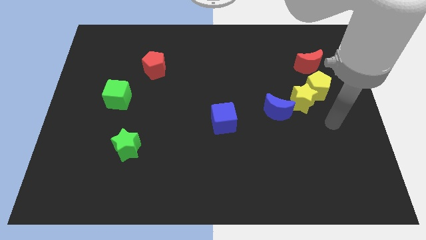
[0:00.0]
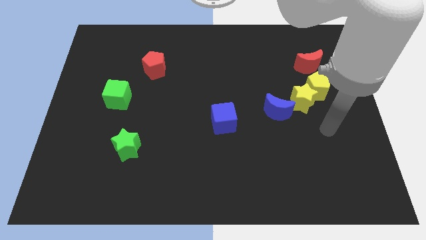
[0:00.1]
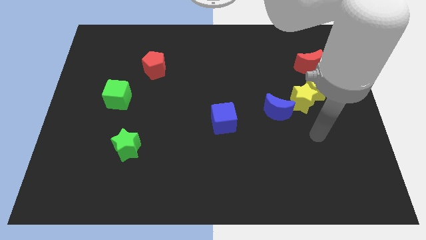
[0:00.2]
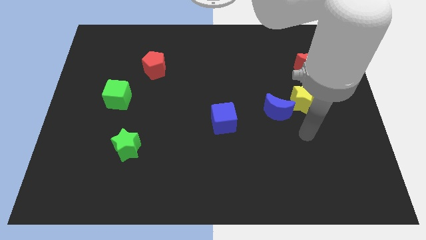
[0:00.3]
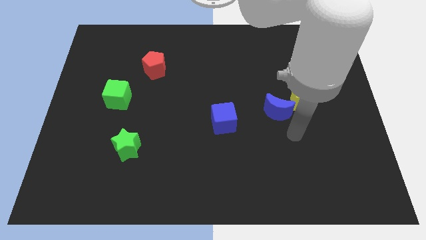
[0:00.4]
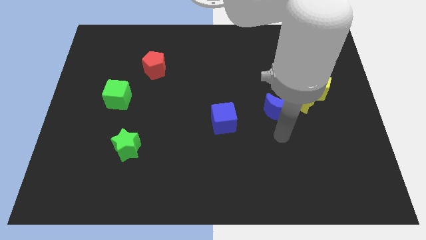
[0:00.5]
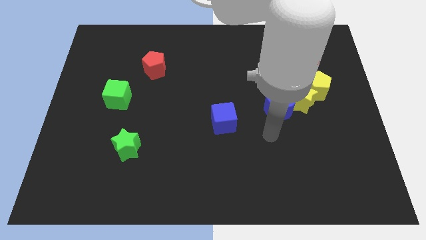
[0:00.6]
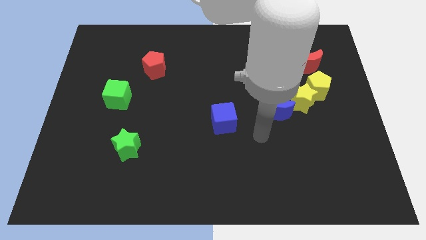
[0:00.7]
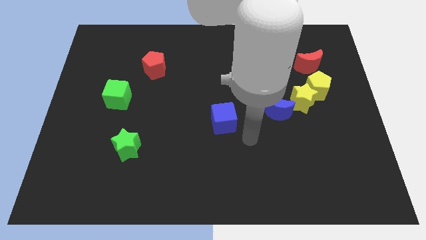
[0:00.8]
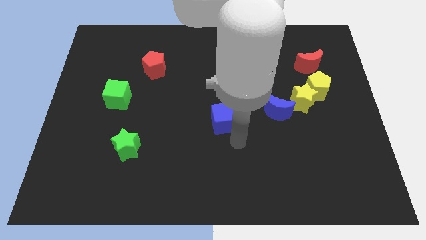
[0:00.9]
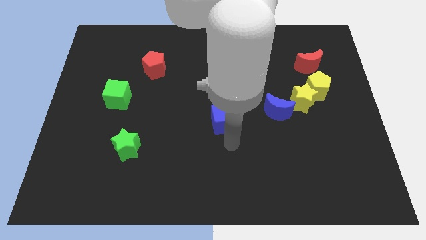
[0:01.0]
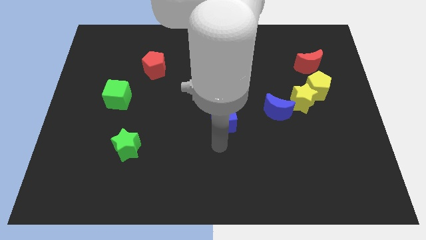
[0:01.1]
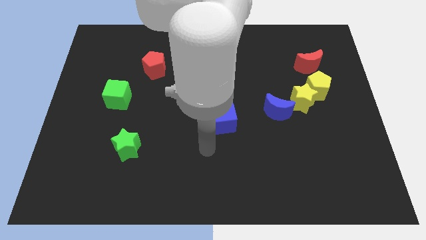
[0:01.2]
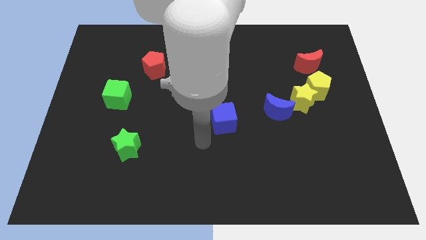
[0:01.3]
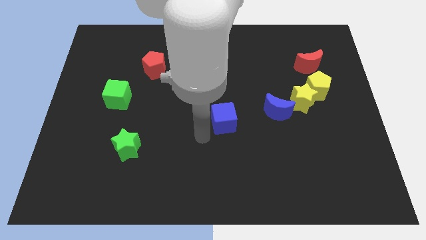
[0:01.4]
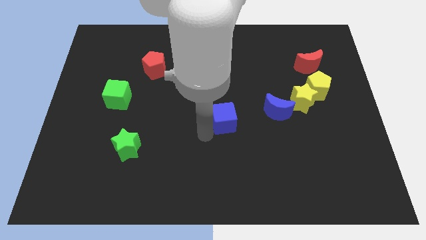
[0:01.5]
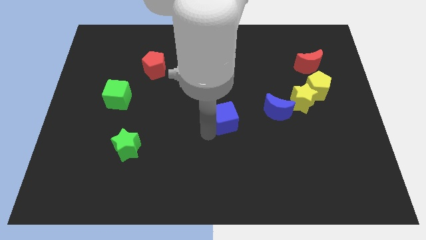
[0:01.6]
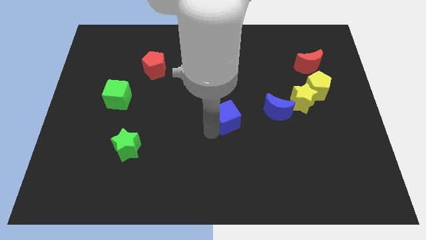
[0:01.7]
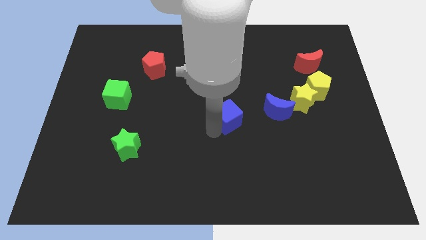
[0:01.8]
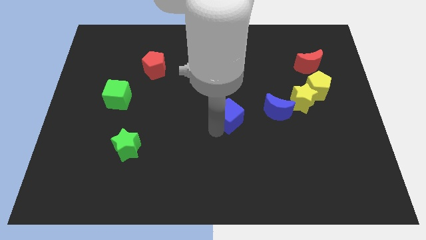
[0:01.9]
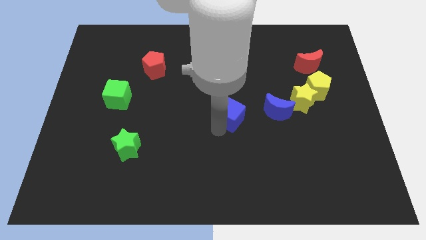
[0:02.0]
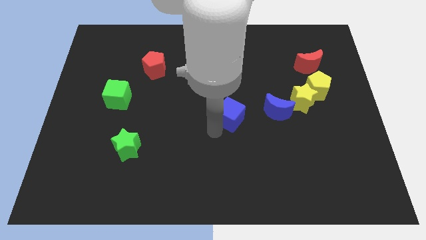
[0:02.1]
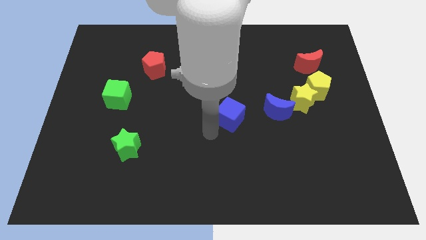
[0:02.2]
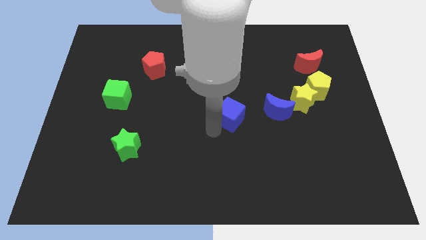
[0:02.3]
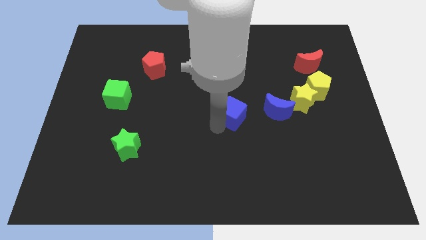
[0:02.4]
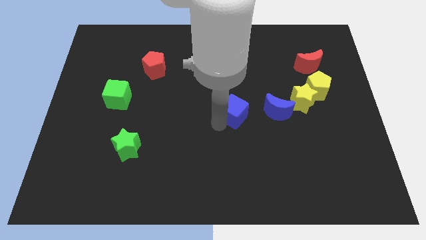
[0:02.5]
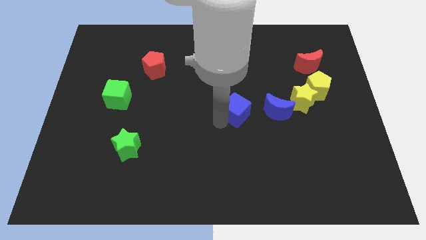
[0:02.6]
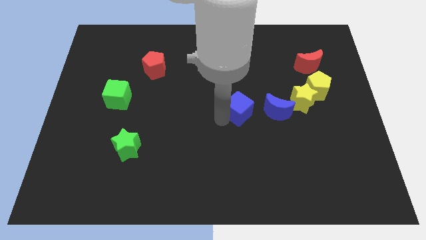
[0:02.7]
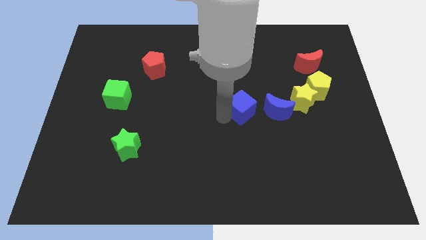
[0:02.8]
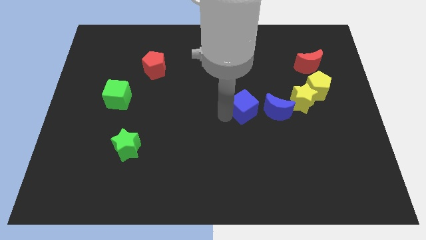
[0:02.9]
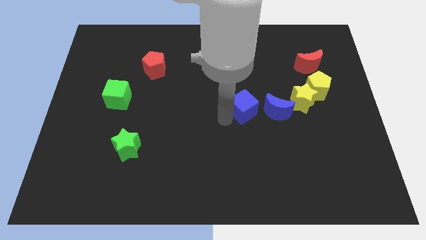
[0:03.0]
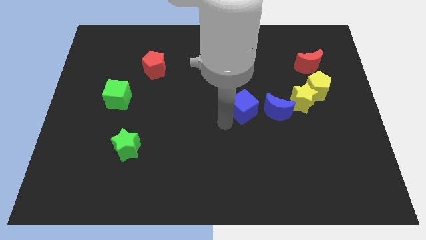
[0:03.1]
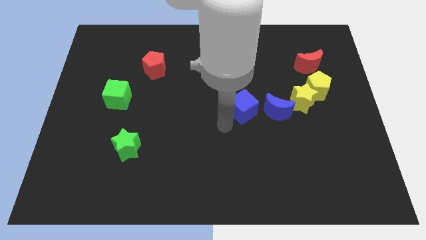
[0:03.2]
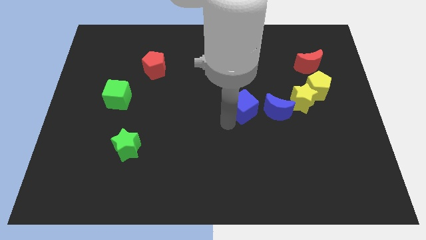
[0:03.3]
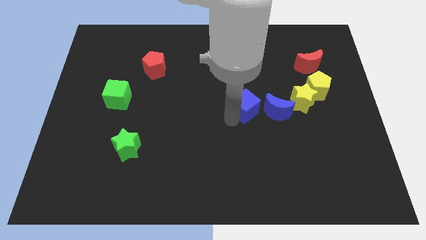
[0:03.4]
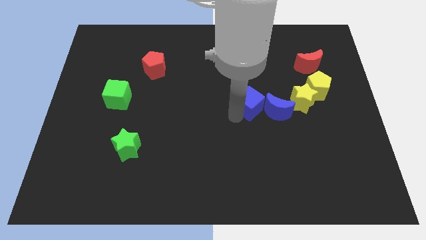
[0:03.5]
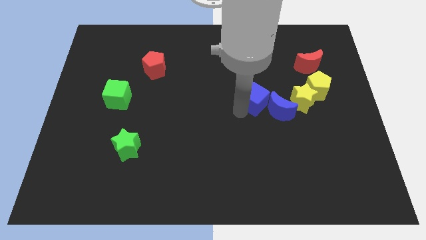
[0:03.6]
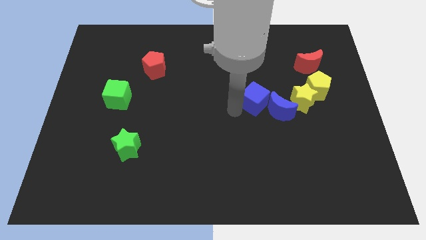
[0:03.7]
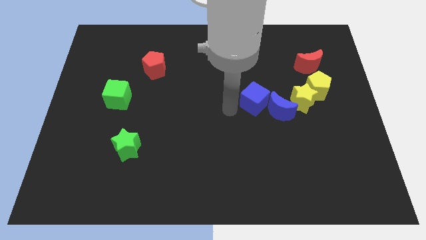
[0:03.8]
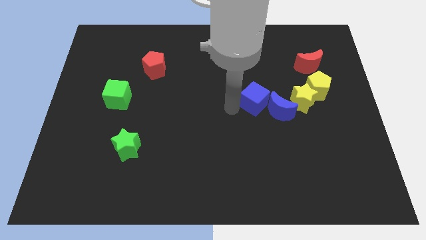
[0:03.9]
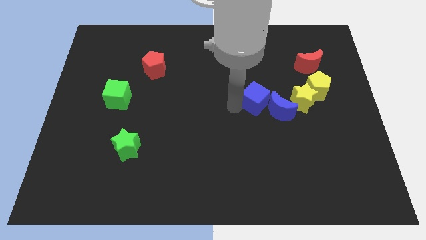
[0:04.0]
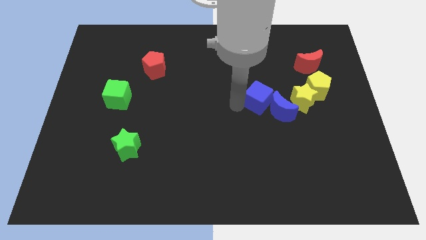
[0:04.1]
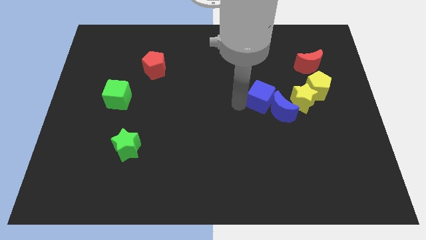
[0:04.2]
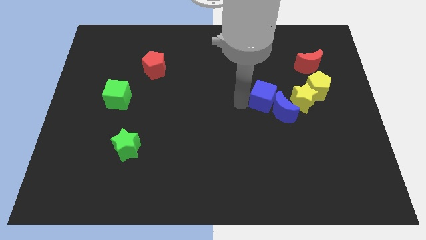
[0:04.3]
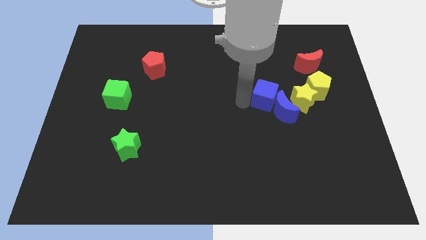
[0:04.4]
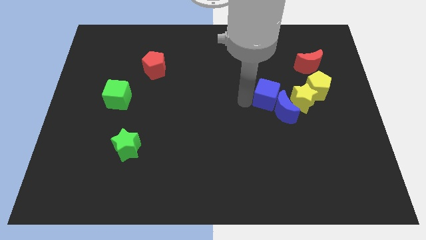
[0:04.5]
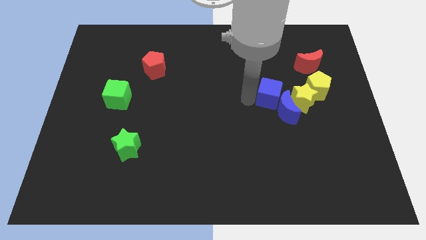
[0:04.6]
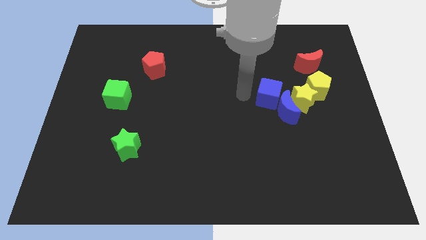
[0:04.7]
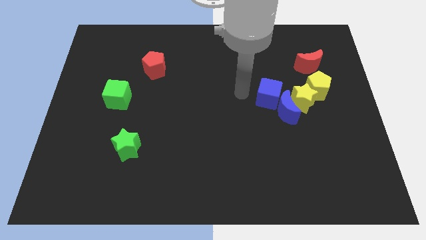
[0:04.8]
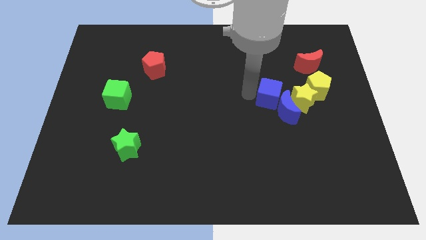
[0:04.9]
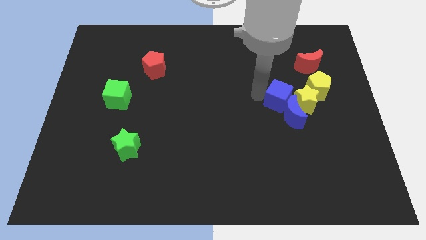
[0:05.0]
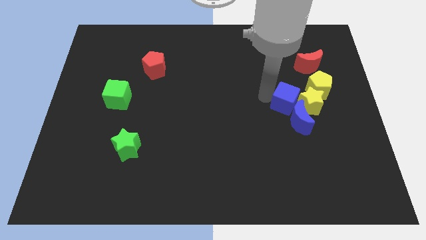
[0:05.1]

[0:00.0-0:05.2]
push the blue cube next to the yellow star

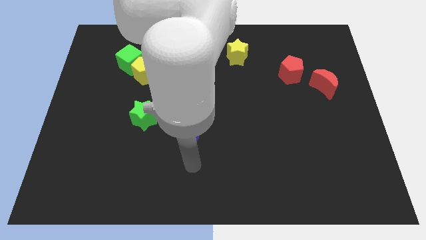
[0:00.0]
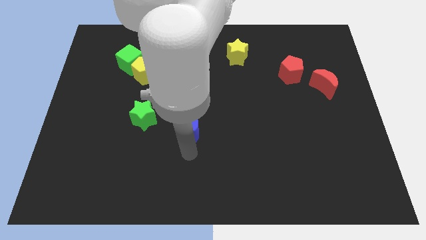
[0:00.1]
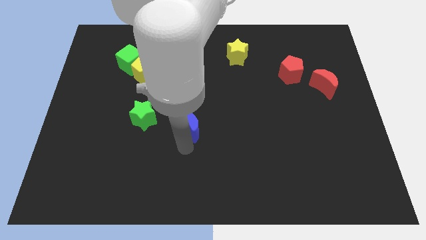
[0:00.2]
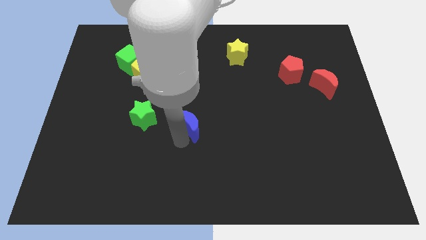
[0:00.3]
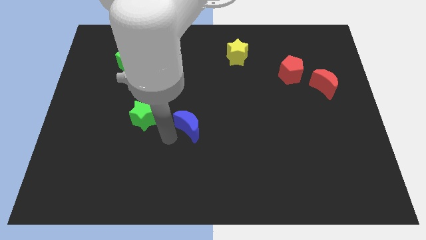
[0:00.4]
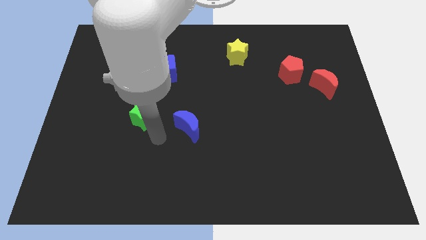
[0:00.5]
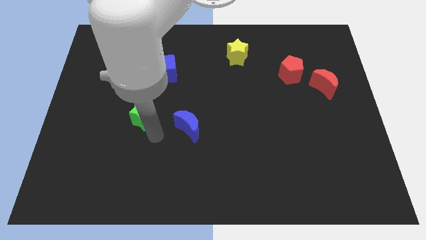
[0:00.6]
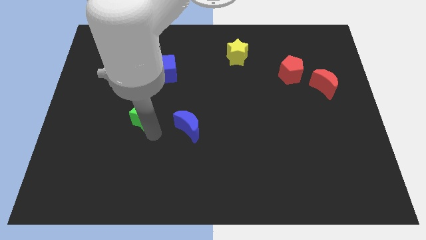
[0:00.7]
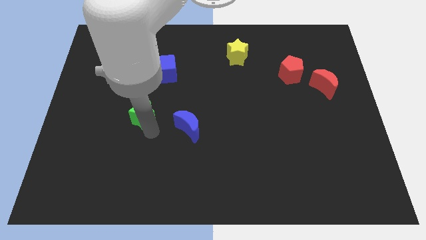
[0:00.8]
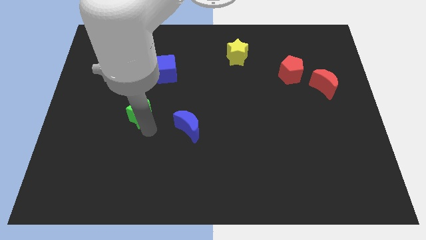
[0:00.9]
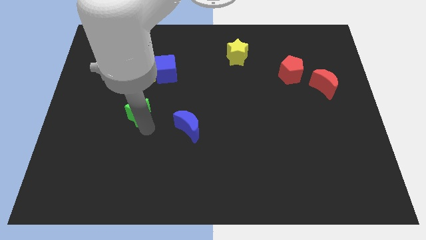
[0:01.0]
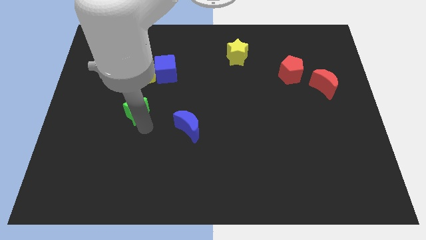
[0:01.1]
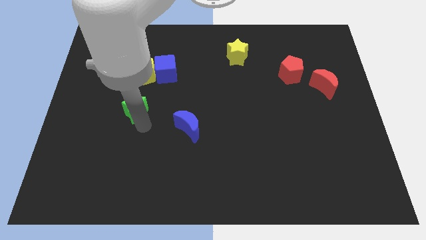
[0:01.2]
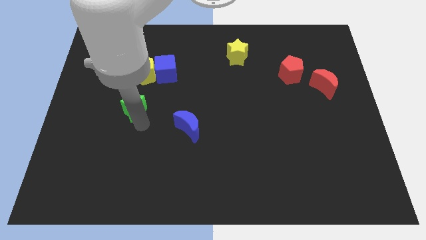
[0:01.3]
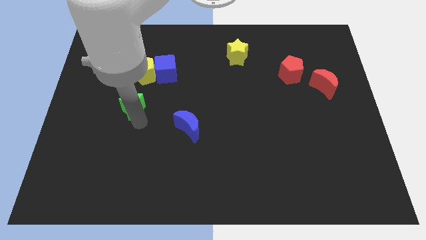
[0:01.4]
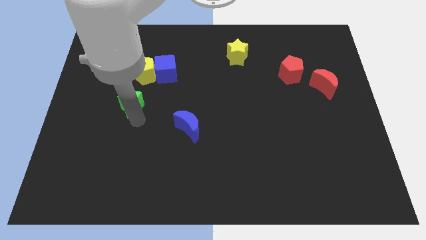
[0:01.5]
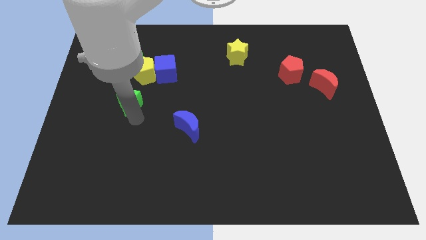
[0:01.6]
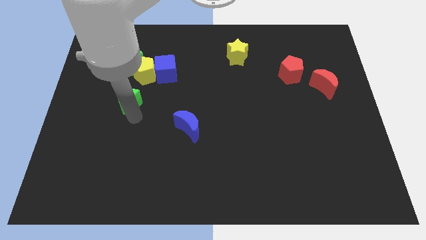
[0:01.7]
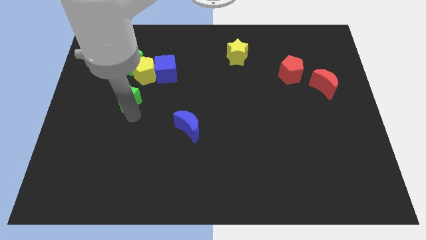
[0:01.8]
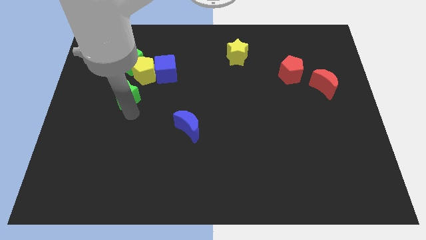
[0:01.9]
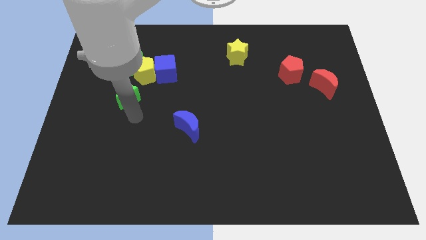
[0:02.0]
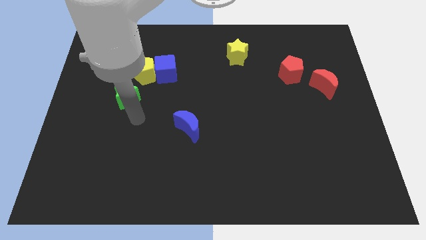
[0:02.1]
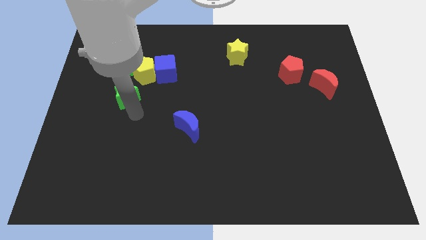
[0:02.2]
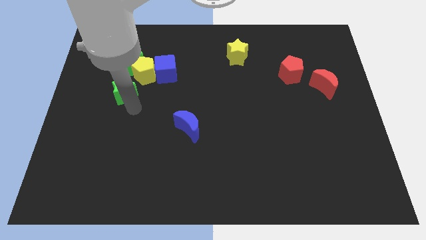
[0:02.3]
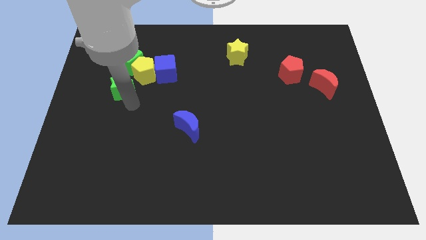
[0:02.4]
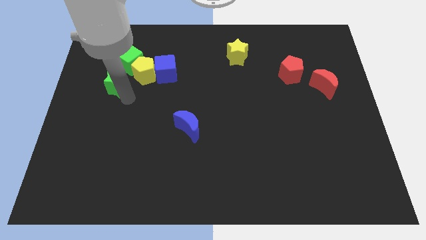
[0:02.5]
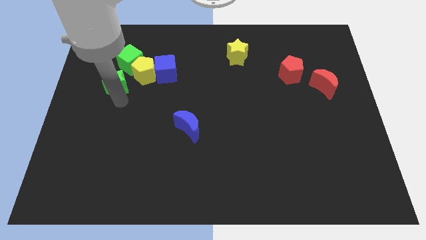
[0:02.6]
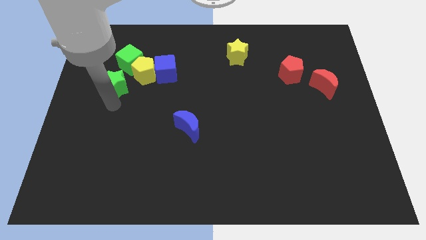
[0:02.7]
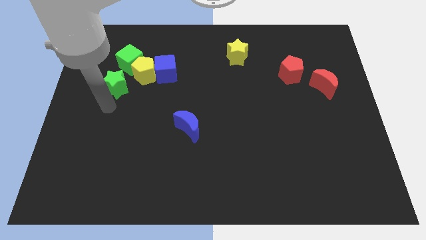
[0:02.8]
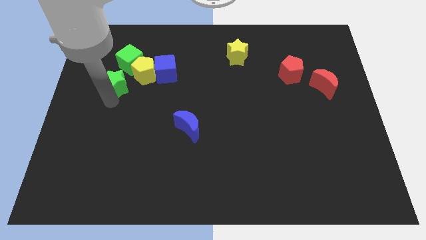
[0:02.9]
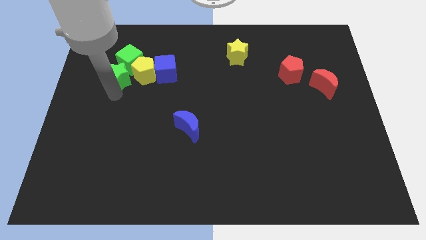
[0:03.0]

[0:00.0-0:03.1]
put the green star towards the green cube
